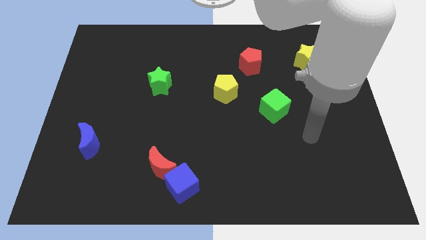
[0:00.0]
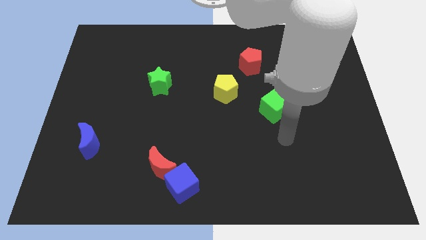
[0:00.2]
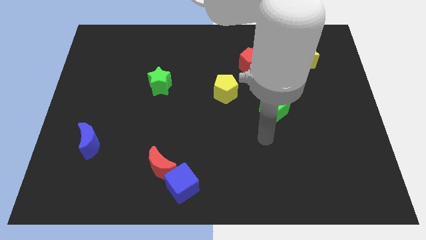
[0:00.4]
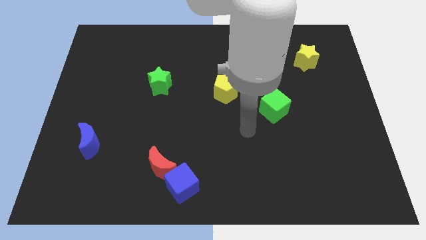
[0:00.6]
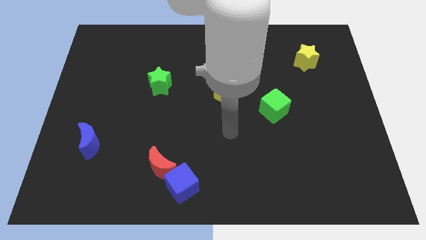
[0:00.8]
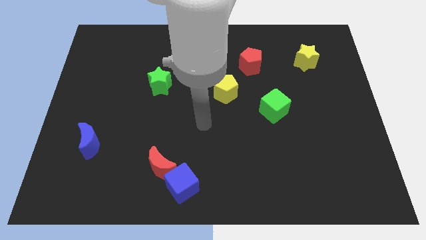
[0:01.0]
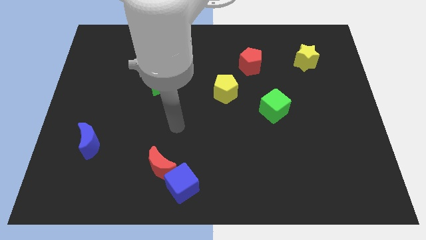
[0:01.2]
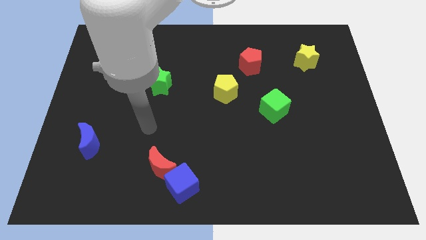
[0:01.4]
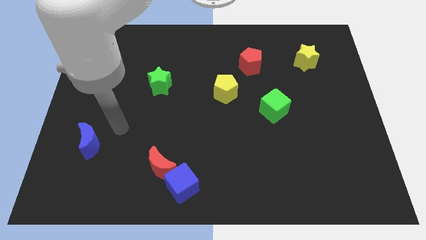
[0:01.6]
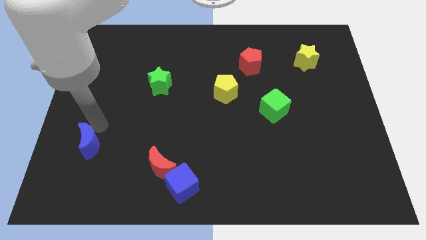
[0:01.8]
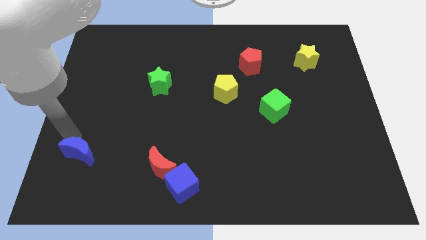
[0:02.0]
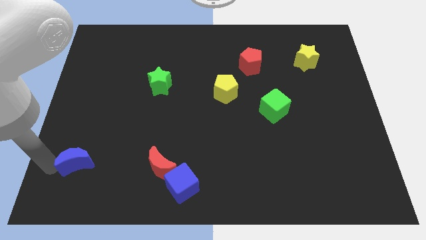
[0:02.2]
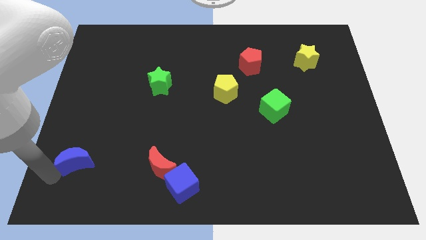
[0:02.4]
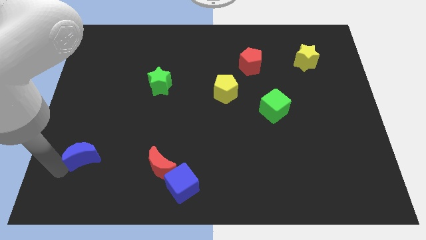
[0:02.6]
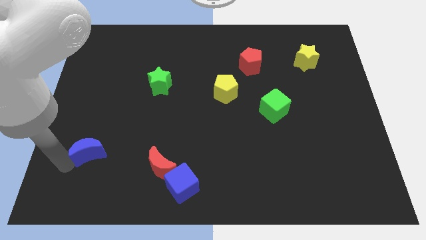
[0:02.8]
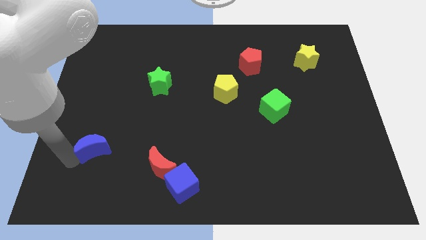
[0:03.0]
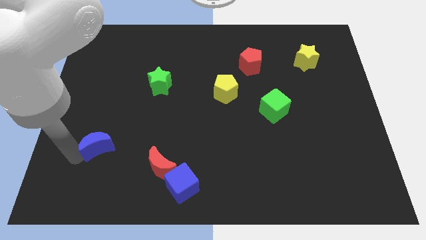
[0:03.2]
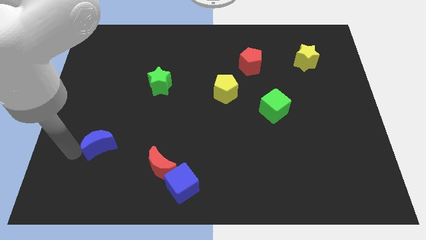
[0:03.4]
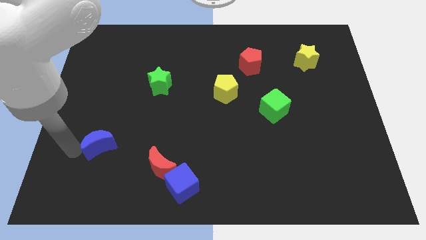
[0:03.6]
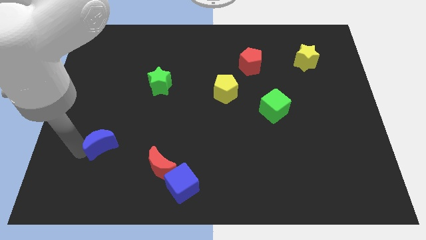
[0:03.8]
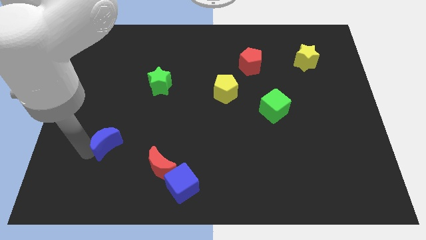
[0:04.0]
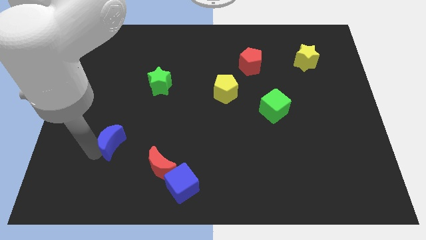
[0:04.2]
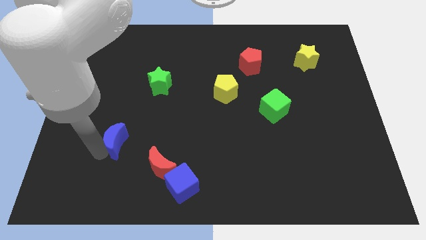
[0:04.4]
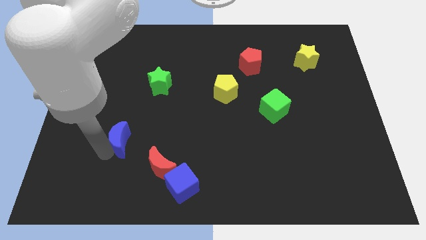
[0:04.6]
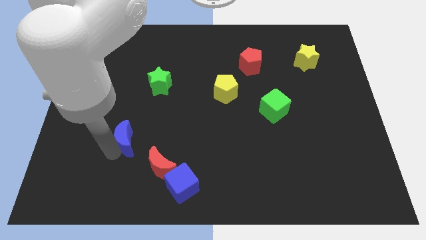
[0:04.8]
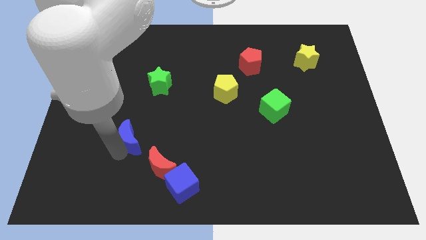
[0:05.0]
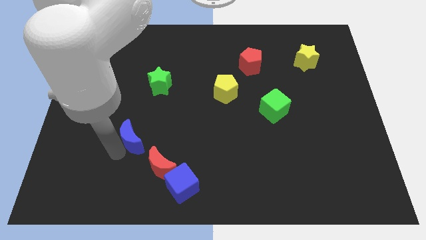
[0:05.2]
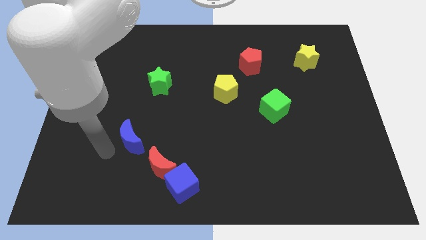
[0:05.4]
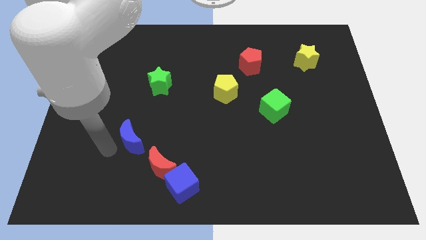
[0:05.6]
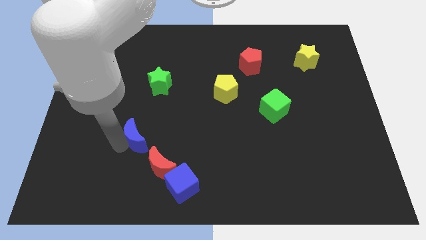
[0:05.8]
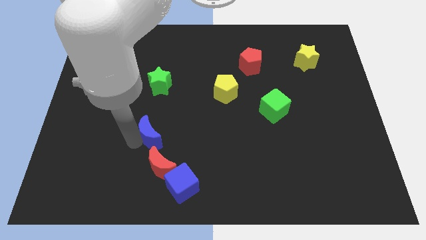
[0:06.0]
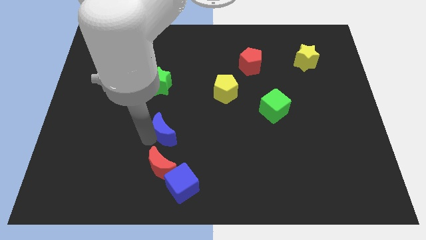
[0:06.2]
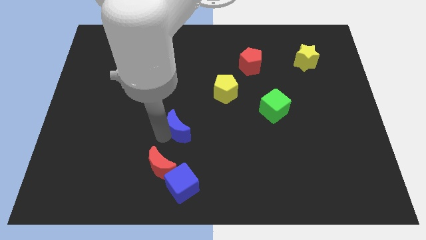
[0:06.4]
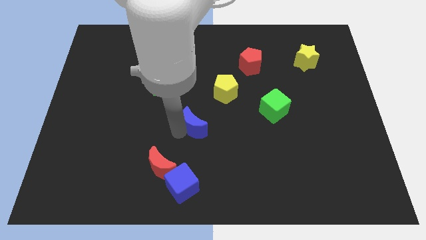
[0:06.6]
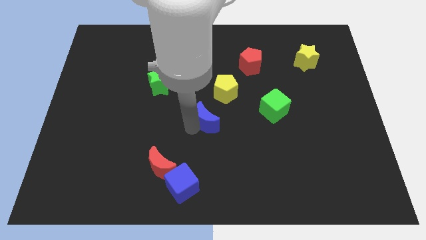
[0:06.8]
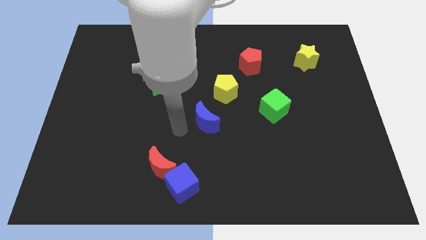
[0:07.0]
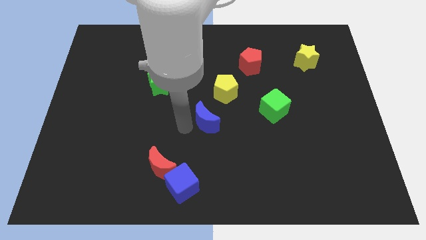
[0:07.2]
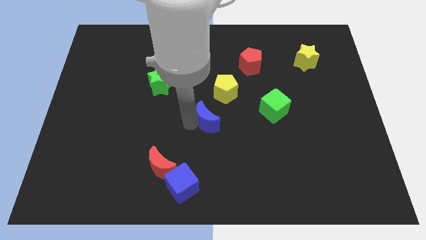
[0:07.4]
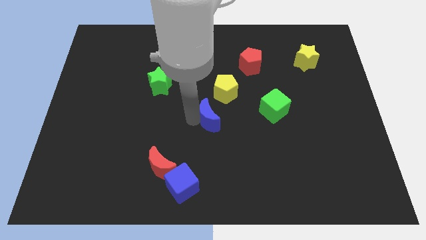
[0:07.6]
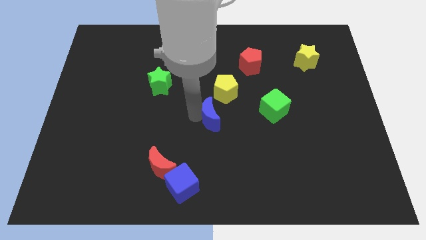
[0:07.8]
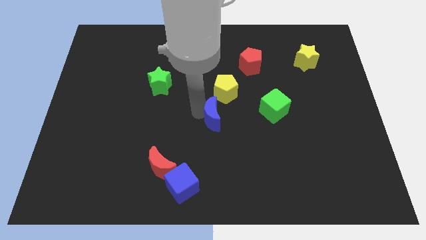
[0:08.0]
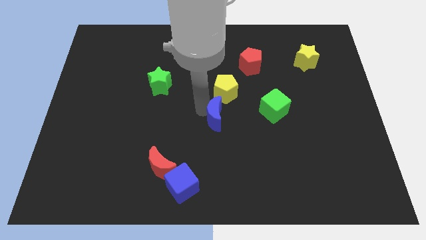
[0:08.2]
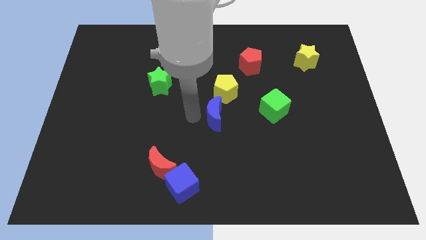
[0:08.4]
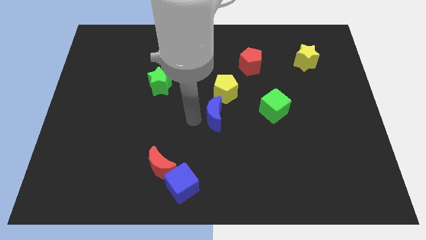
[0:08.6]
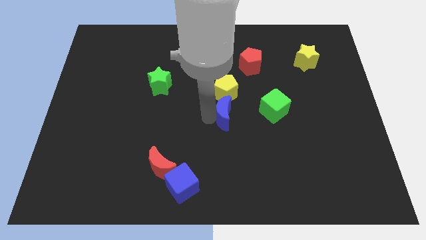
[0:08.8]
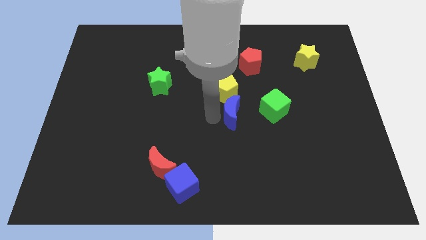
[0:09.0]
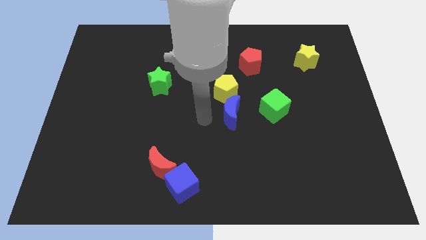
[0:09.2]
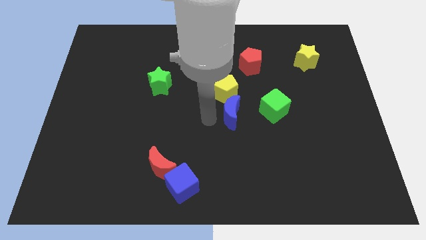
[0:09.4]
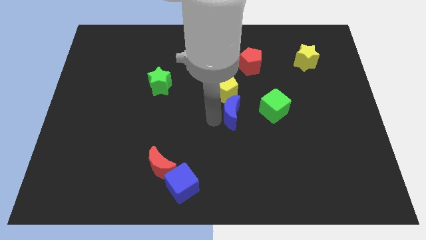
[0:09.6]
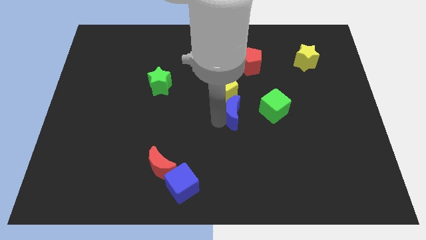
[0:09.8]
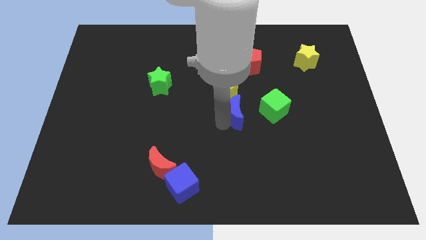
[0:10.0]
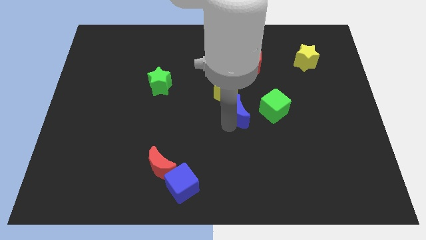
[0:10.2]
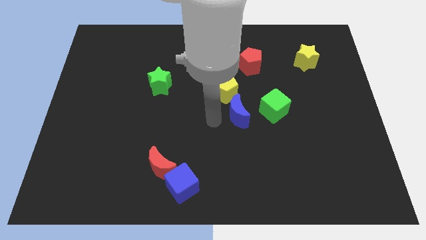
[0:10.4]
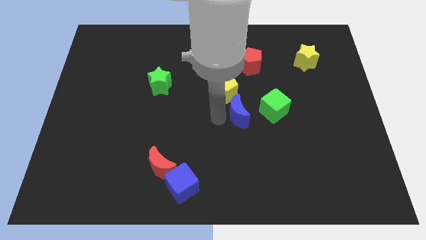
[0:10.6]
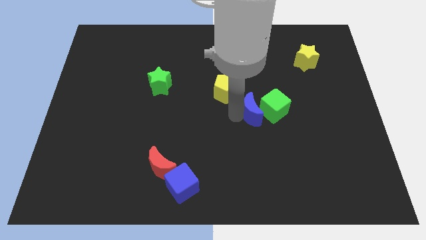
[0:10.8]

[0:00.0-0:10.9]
push the blue moon towards the green cube

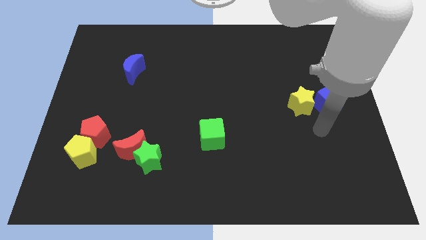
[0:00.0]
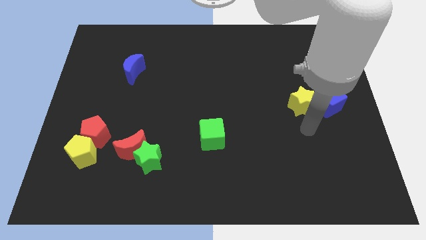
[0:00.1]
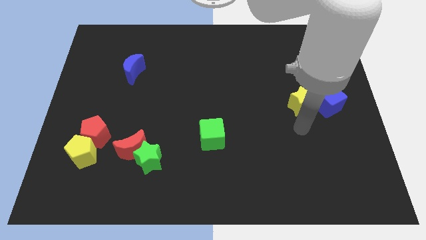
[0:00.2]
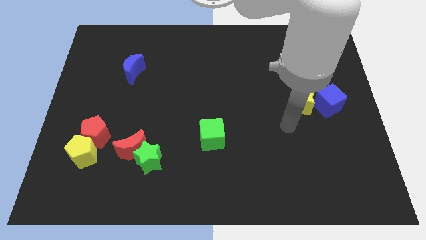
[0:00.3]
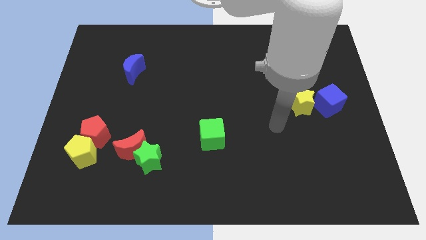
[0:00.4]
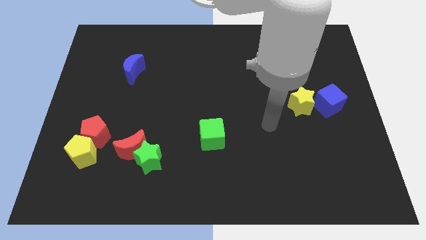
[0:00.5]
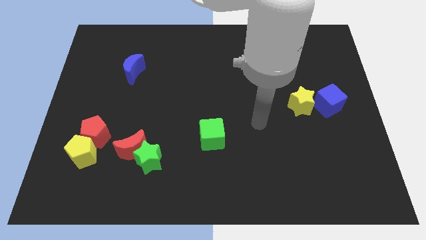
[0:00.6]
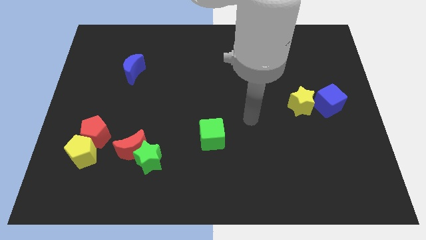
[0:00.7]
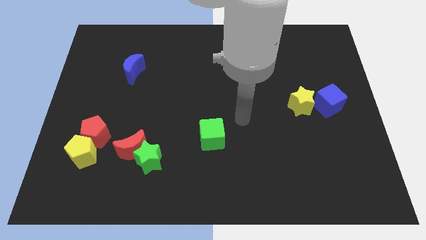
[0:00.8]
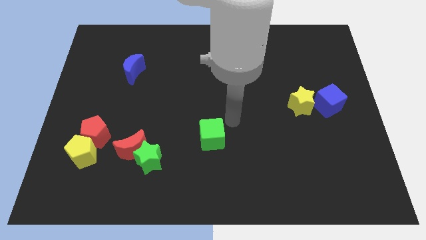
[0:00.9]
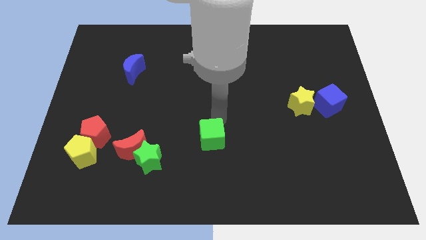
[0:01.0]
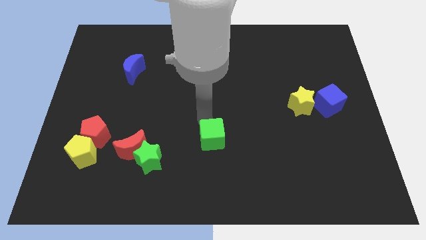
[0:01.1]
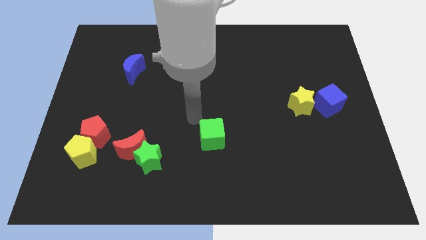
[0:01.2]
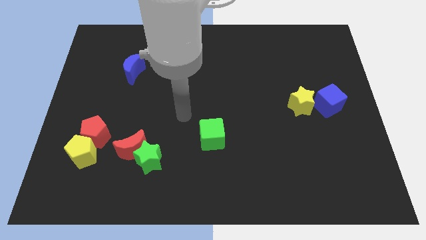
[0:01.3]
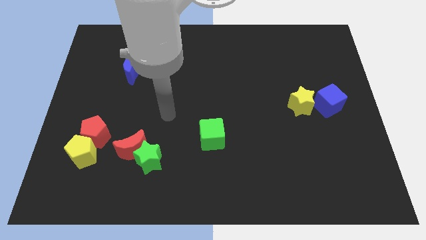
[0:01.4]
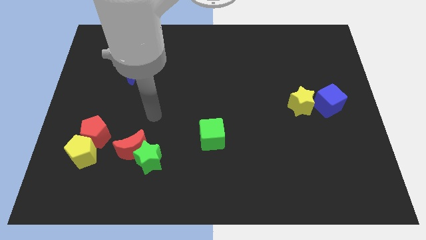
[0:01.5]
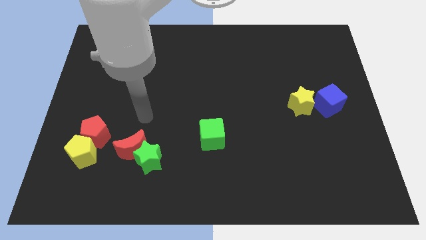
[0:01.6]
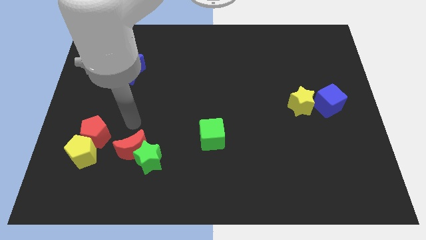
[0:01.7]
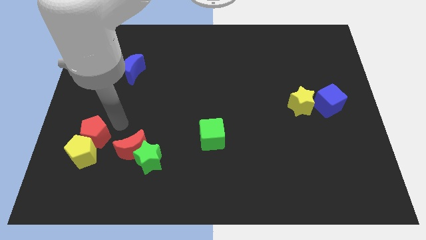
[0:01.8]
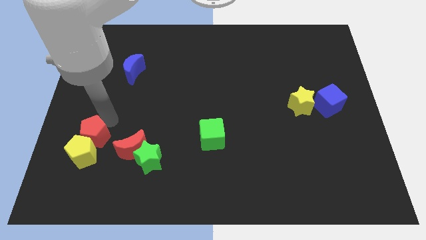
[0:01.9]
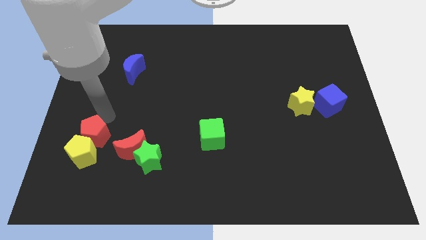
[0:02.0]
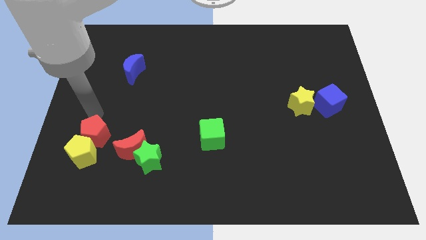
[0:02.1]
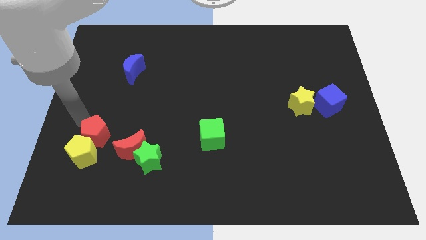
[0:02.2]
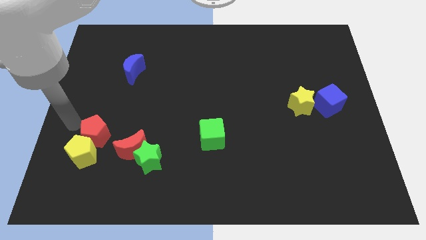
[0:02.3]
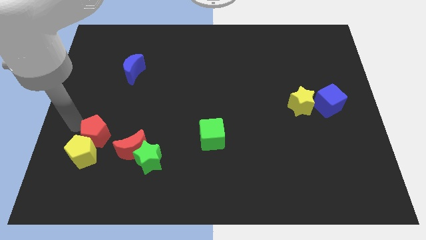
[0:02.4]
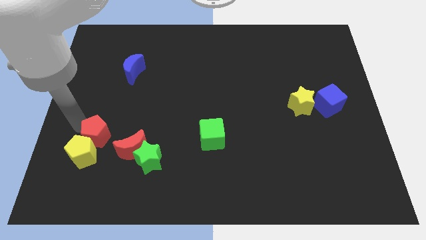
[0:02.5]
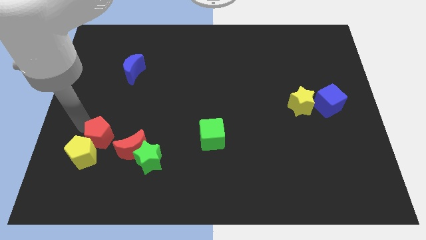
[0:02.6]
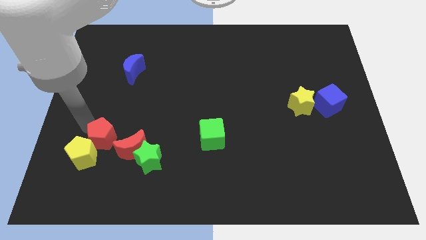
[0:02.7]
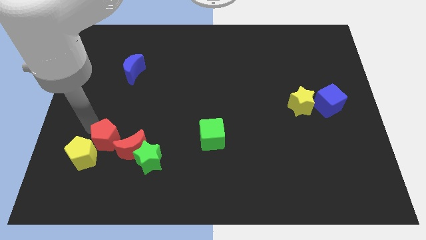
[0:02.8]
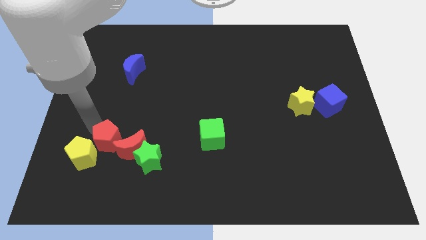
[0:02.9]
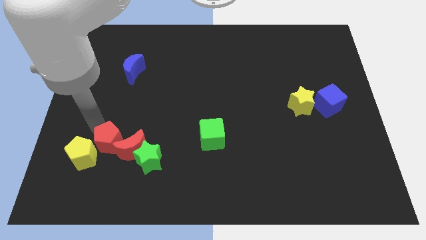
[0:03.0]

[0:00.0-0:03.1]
slide the red pentagon towards the red moon
